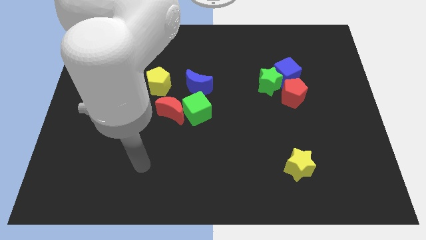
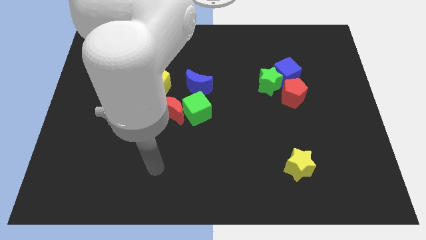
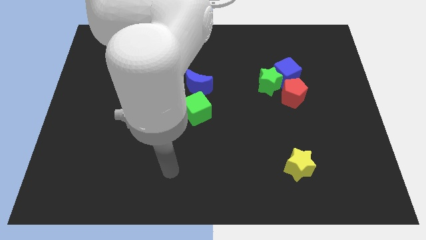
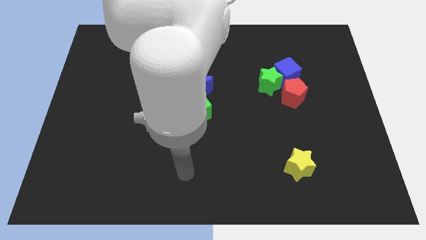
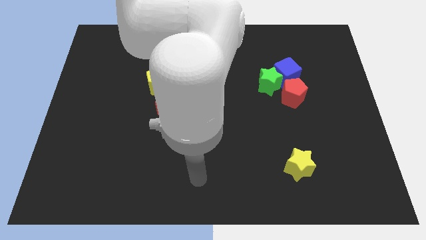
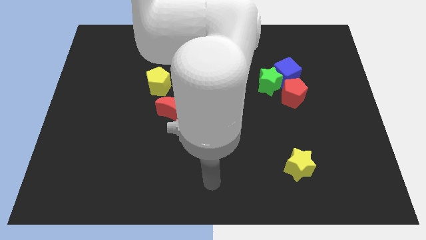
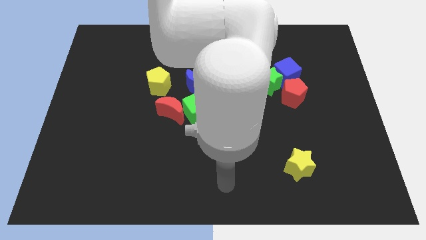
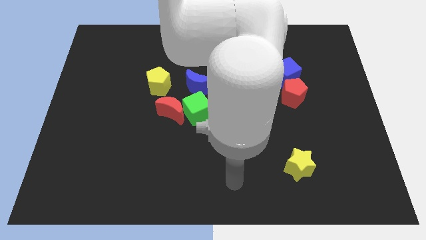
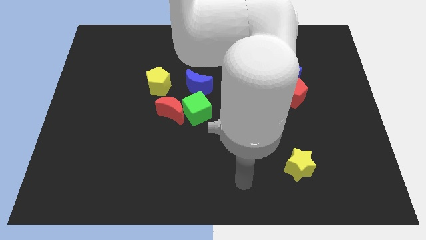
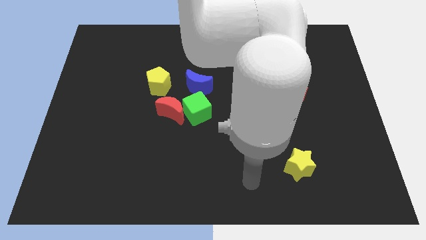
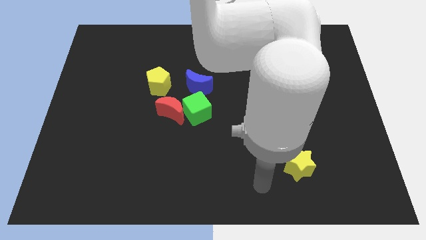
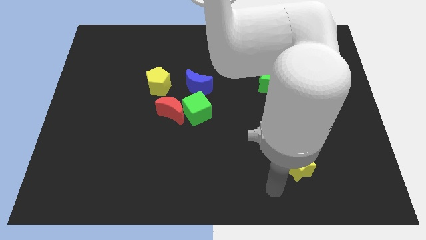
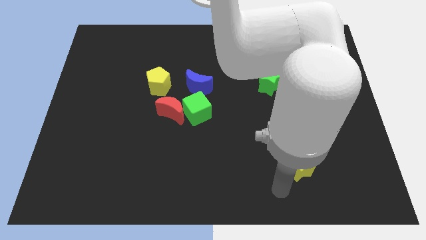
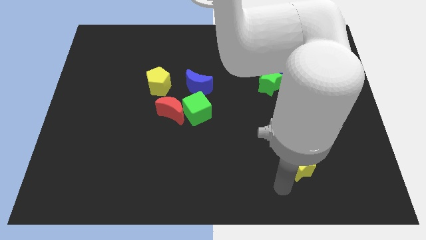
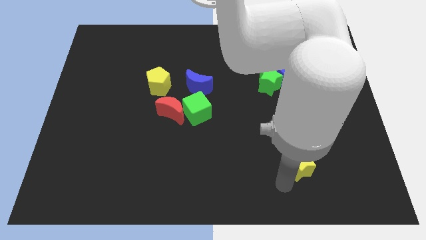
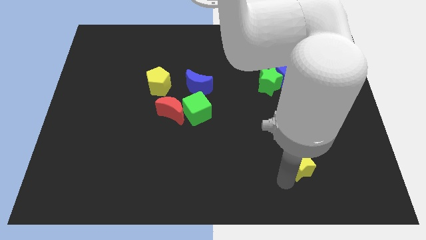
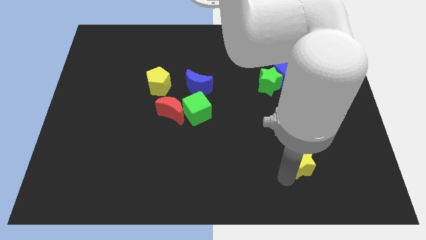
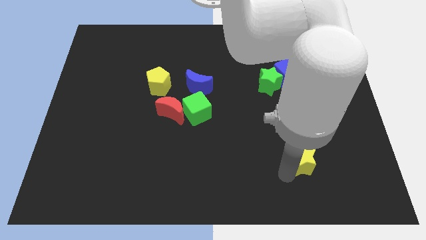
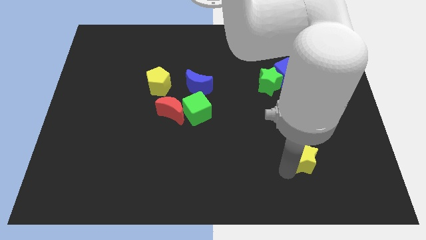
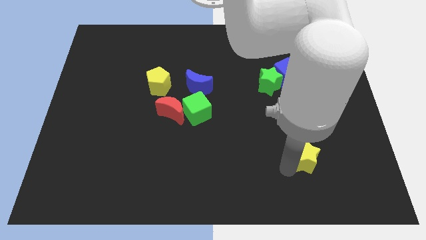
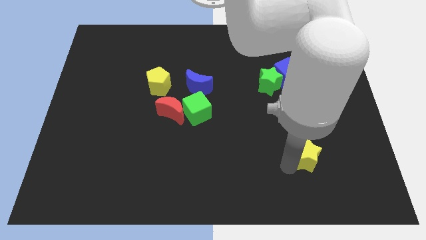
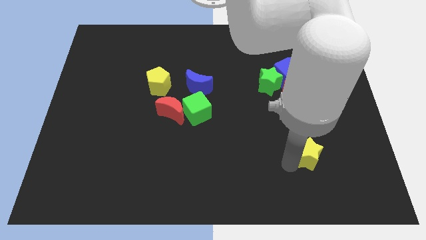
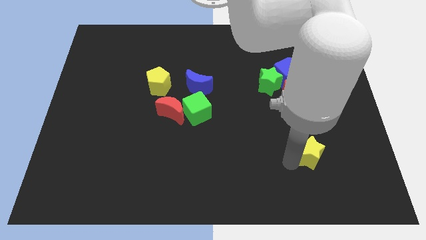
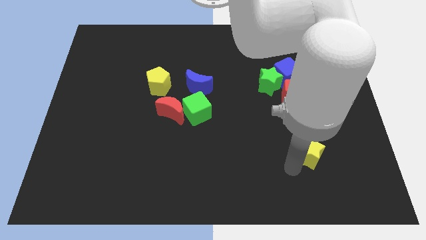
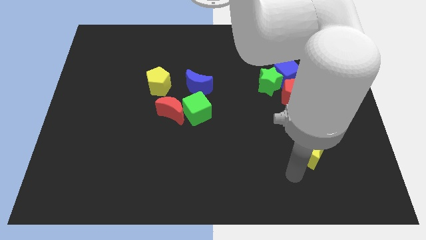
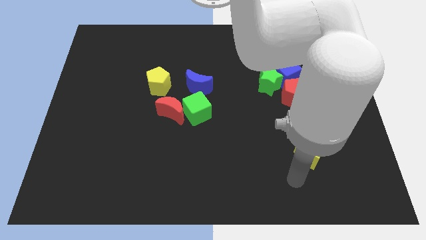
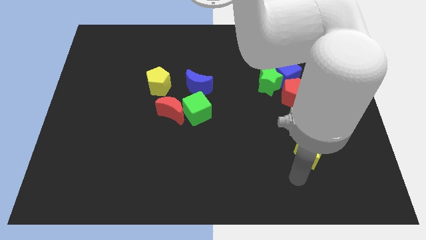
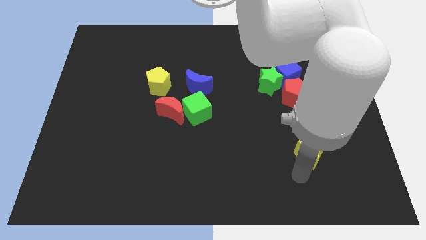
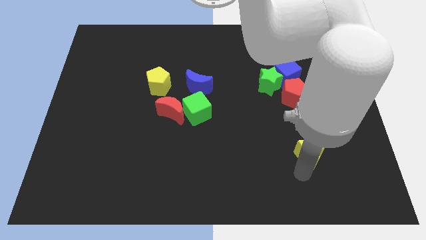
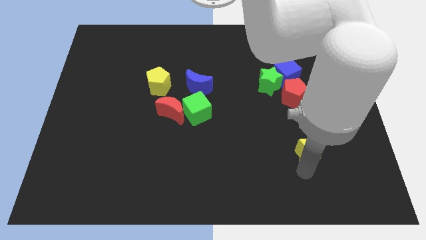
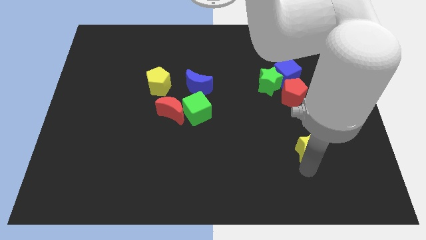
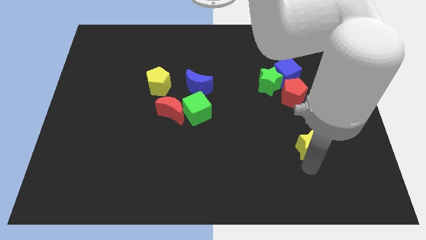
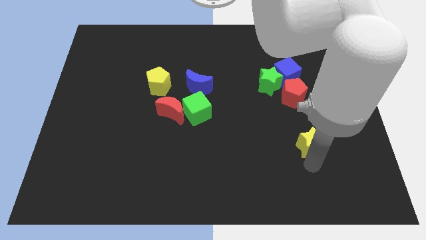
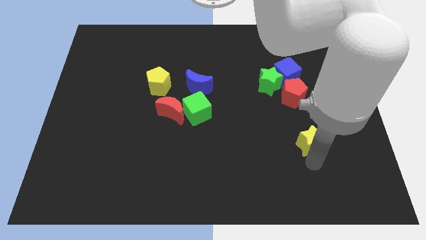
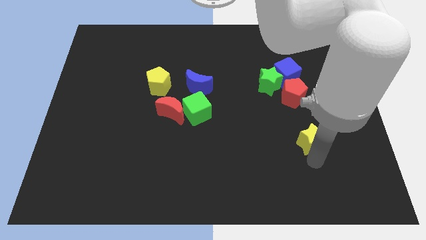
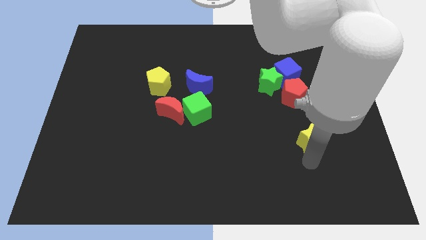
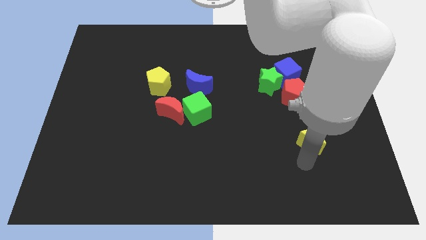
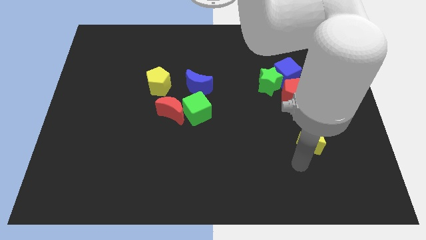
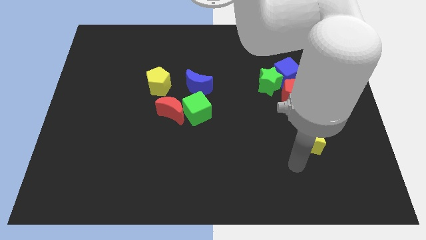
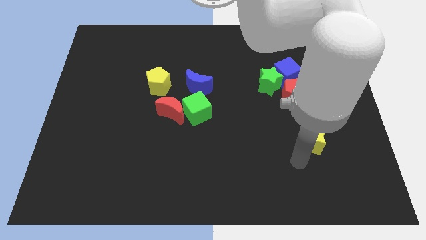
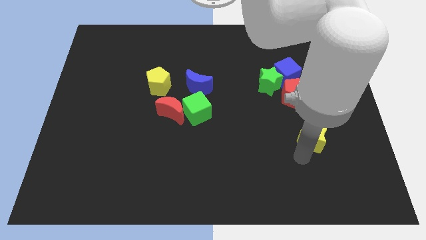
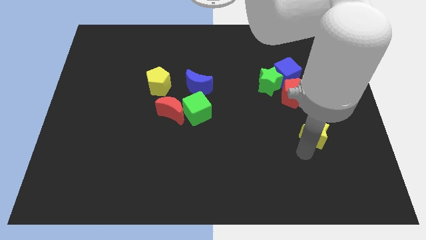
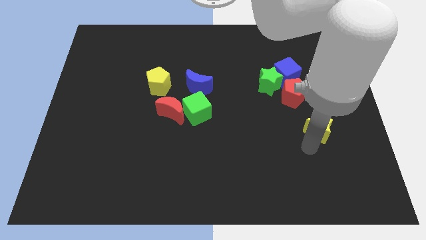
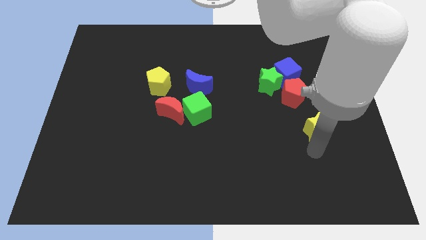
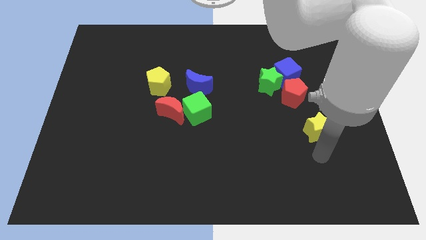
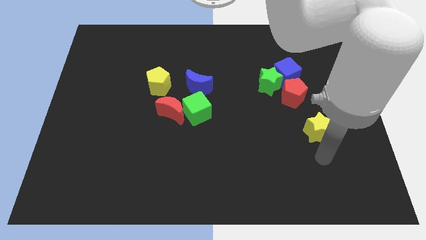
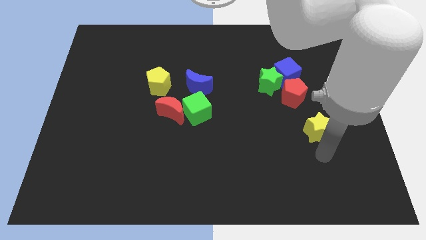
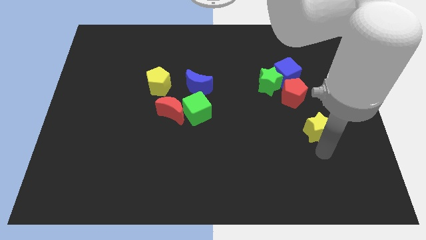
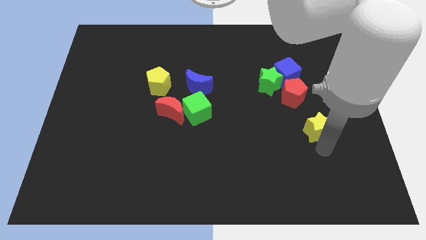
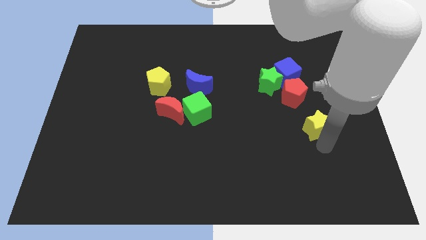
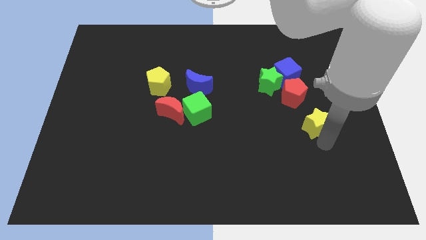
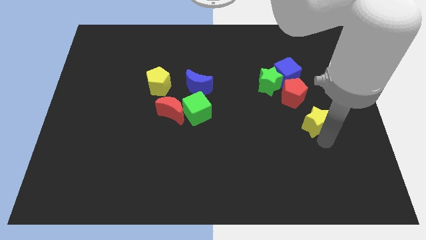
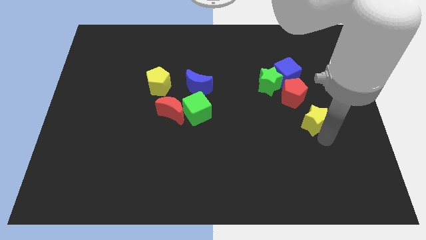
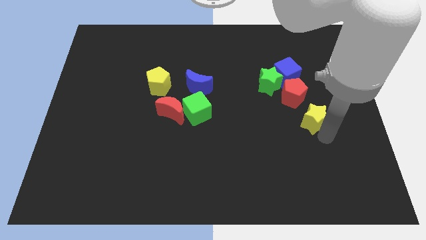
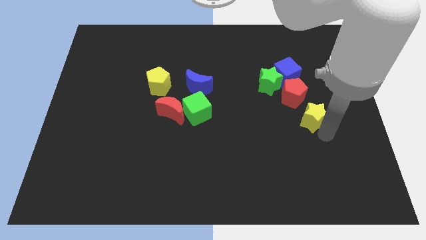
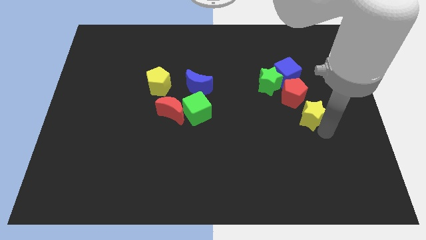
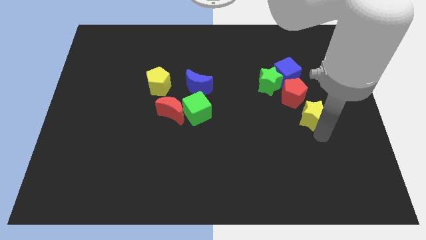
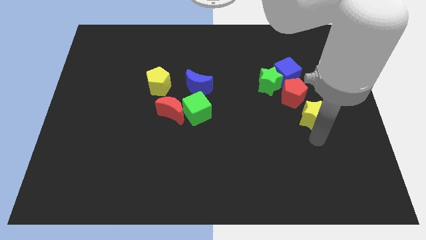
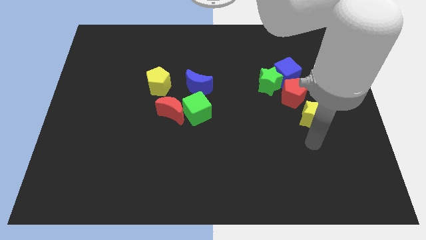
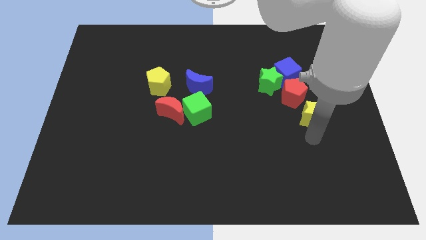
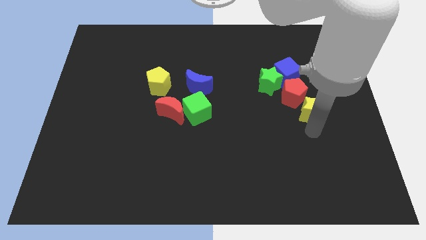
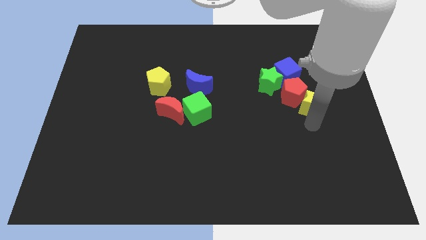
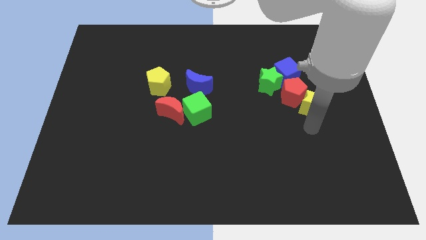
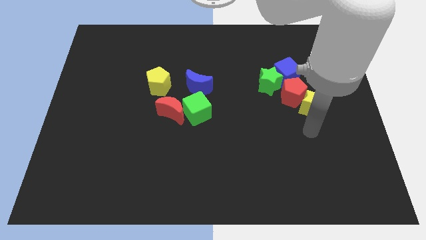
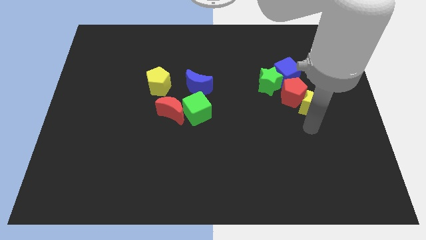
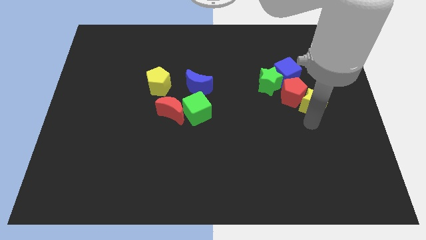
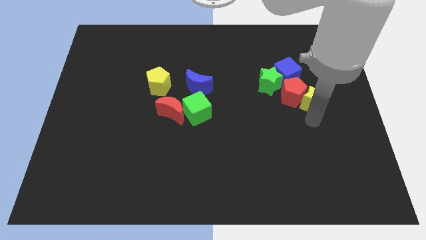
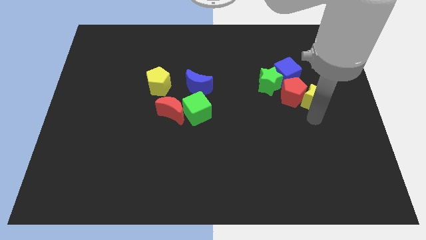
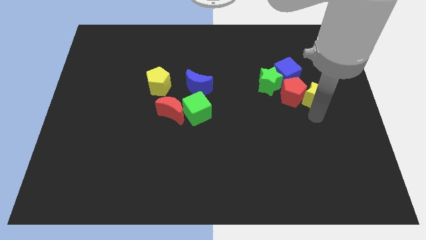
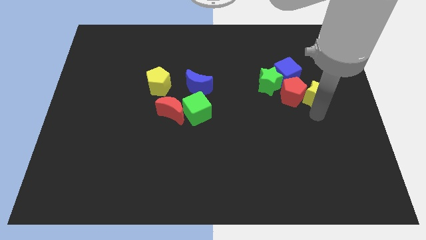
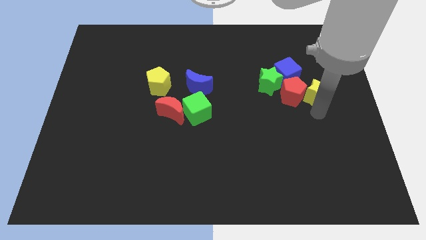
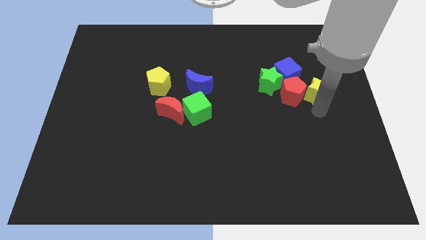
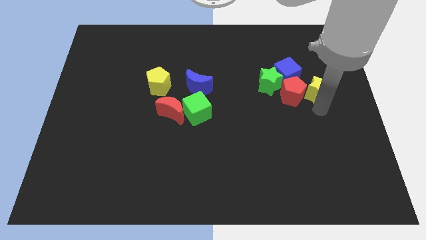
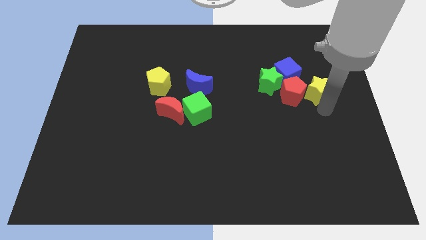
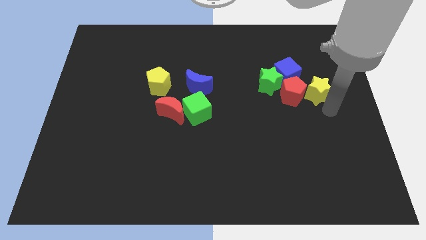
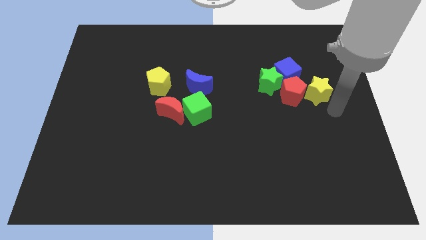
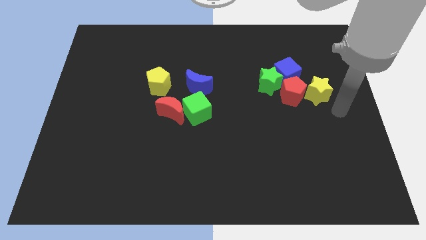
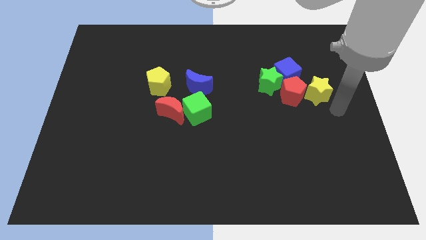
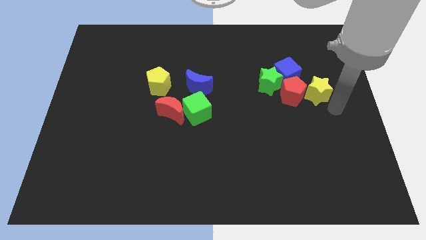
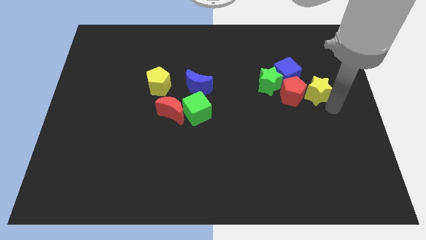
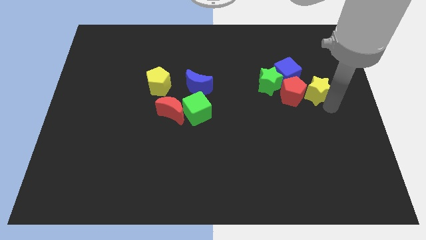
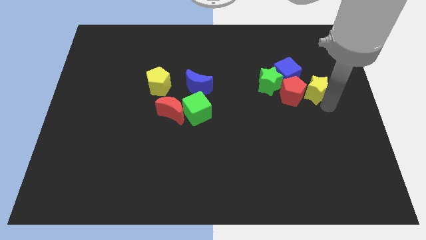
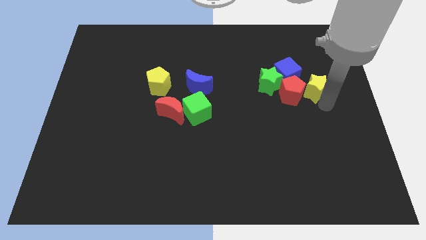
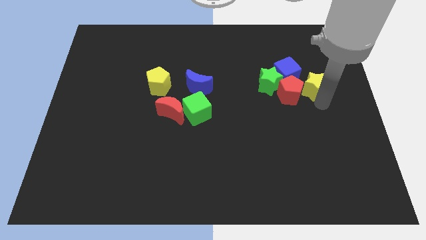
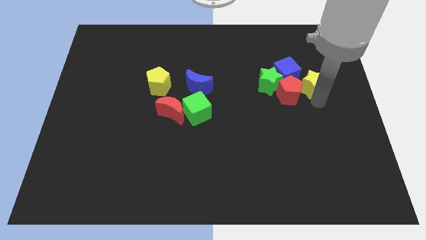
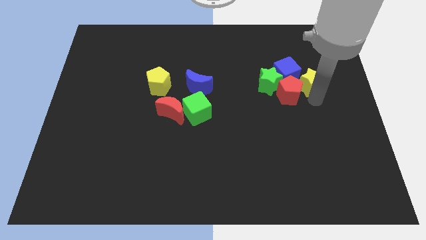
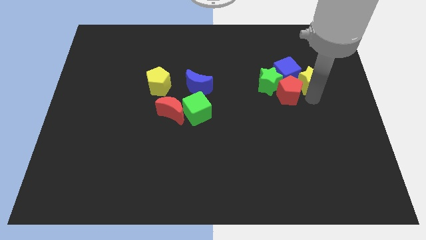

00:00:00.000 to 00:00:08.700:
put the yellow star next to the blue cube
